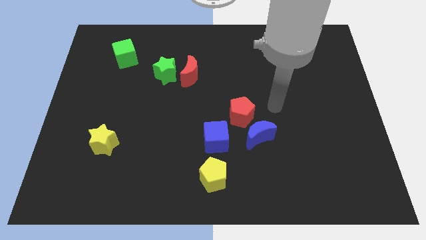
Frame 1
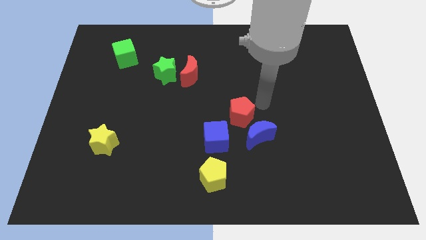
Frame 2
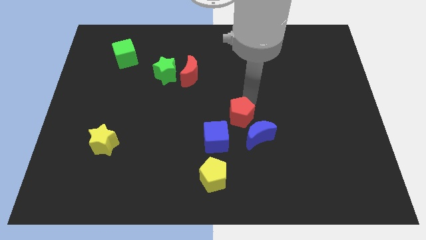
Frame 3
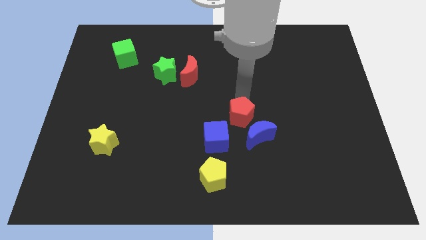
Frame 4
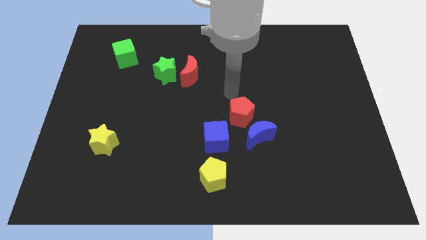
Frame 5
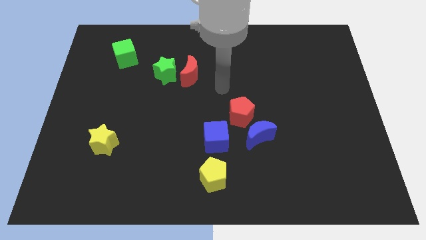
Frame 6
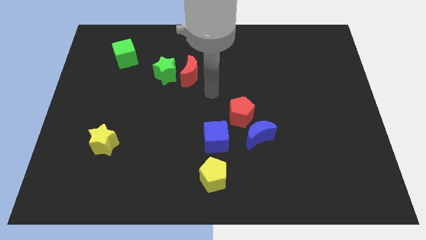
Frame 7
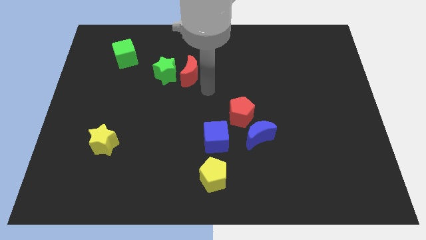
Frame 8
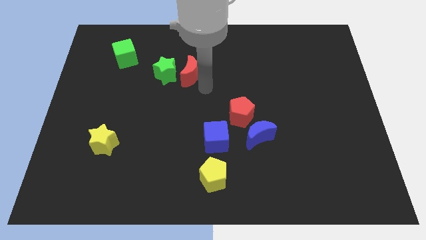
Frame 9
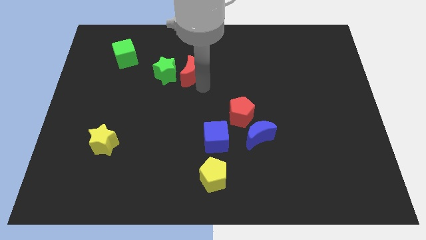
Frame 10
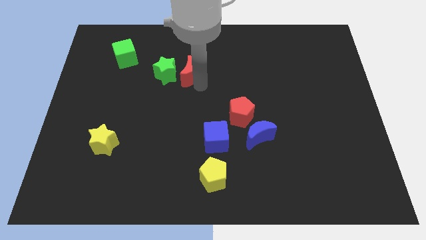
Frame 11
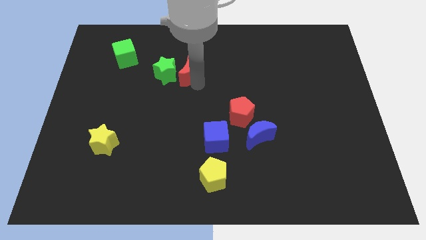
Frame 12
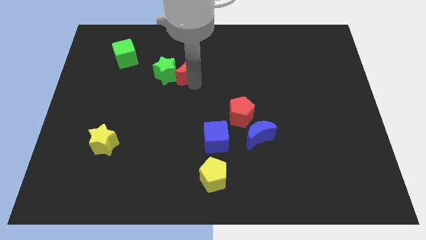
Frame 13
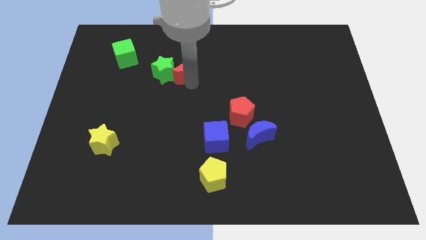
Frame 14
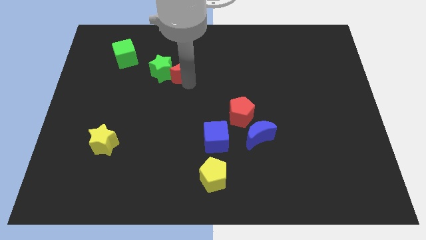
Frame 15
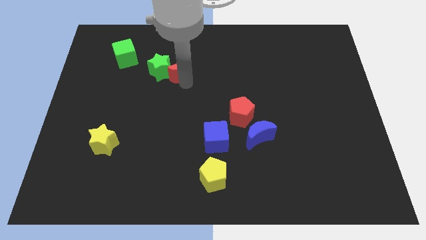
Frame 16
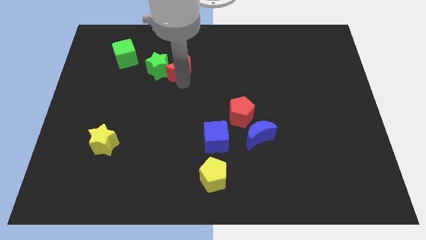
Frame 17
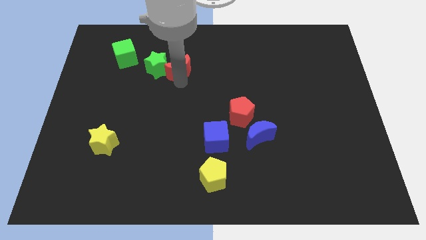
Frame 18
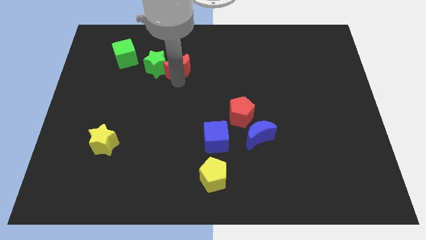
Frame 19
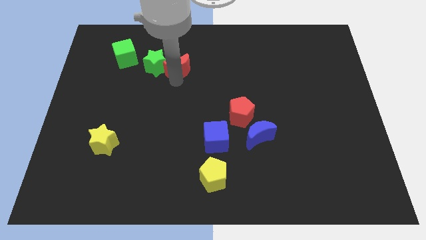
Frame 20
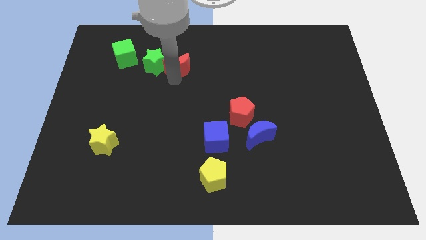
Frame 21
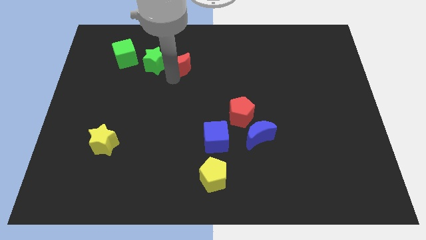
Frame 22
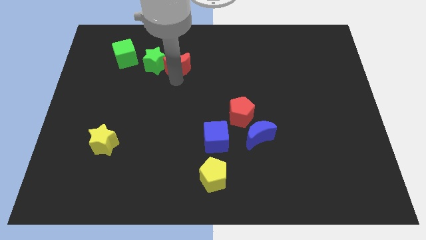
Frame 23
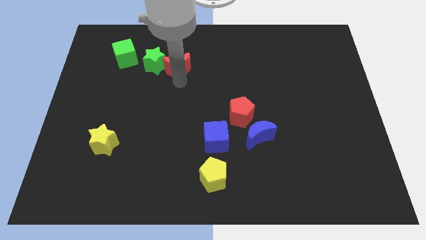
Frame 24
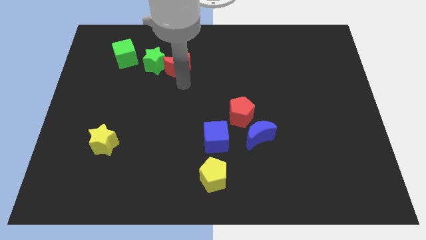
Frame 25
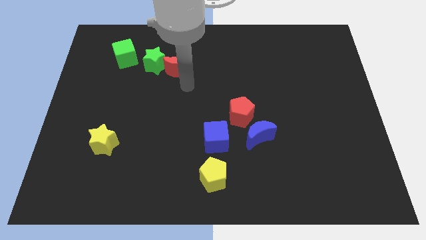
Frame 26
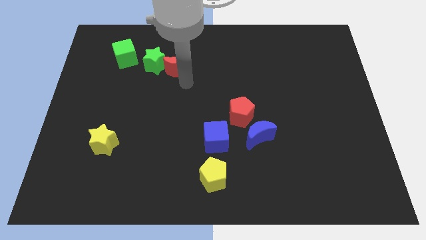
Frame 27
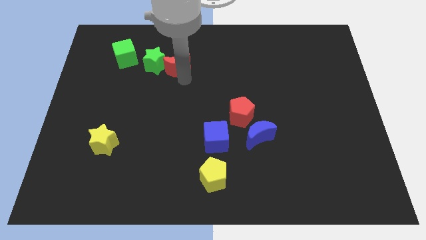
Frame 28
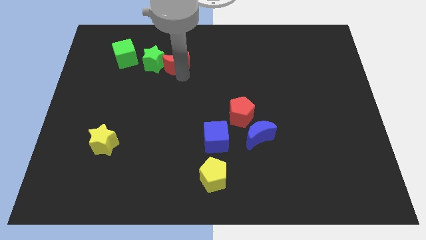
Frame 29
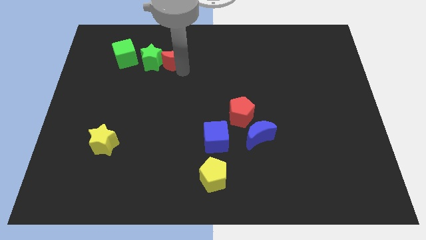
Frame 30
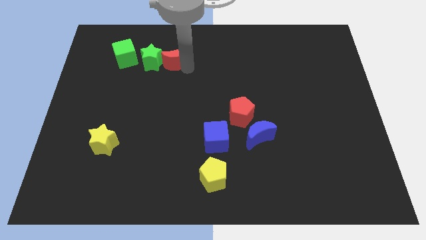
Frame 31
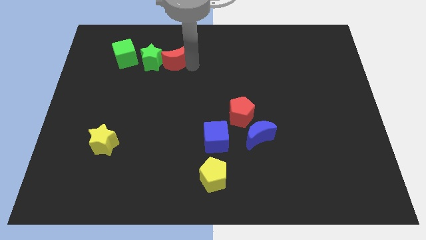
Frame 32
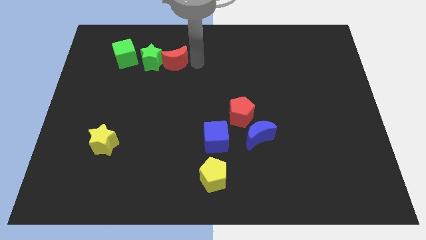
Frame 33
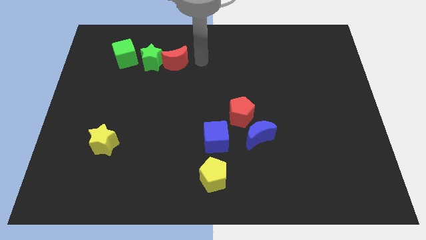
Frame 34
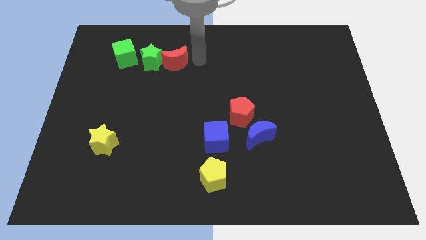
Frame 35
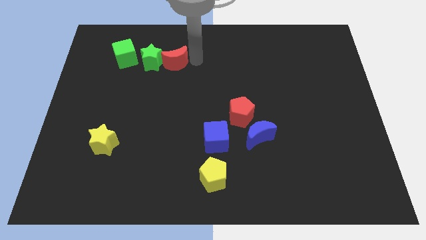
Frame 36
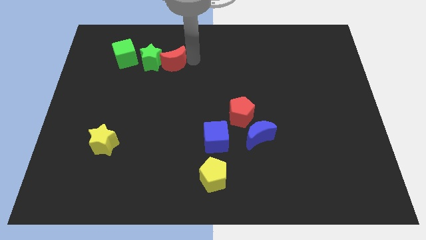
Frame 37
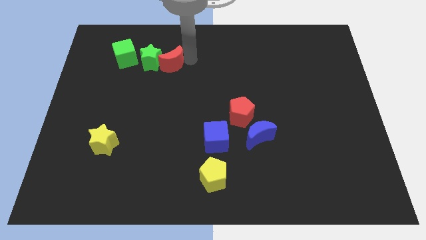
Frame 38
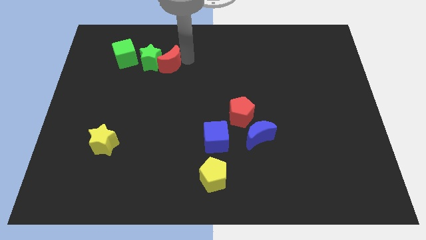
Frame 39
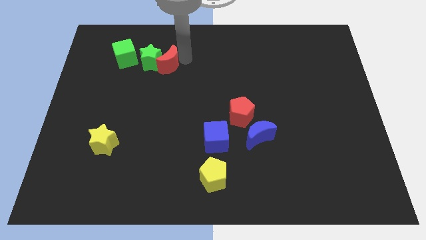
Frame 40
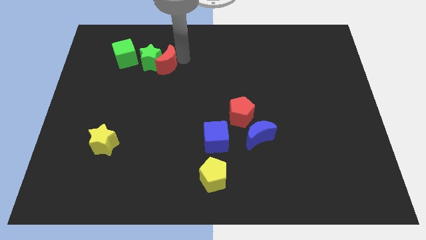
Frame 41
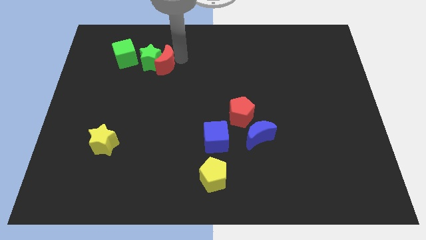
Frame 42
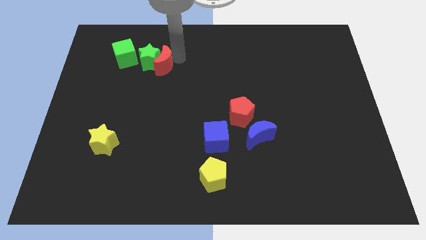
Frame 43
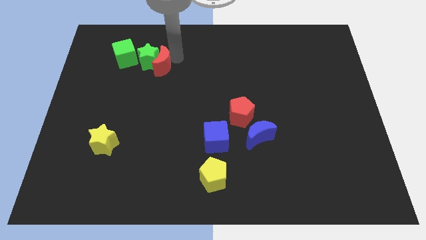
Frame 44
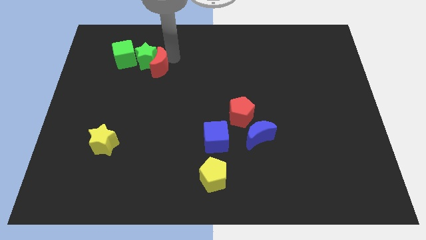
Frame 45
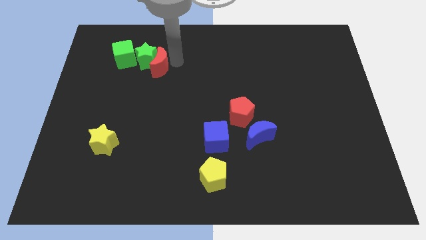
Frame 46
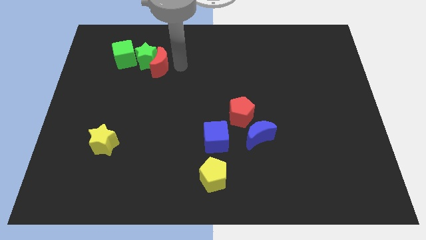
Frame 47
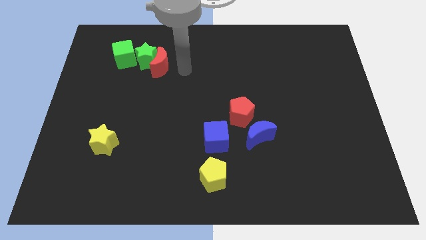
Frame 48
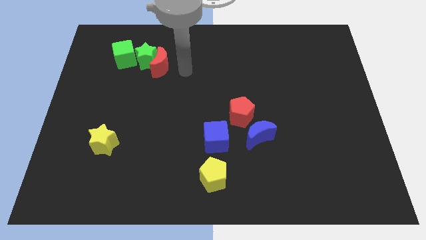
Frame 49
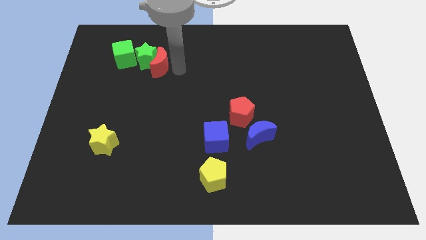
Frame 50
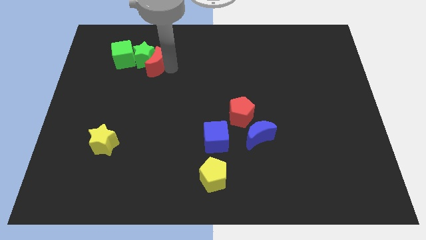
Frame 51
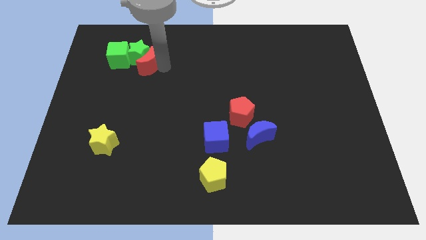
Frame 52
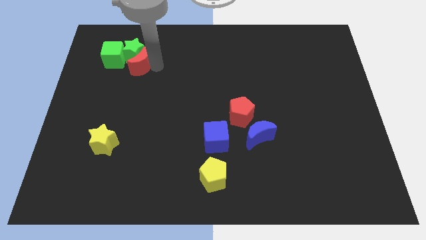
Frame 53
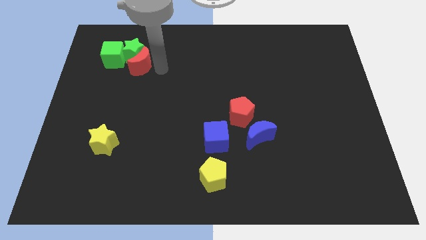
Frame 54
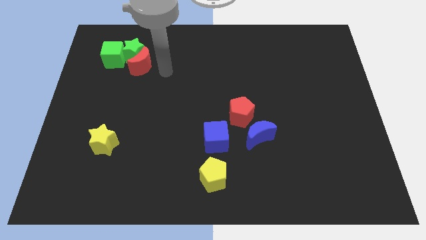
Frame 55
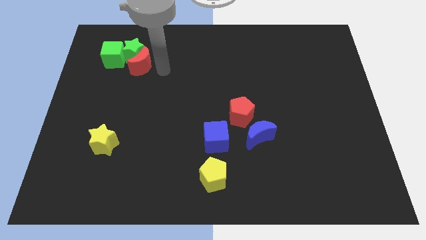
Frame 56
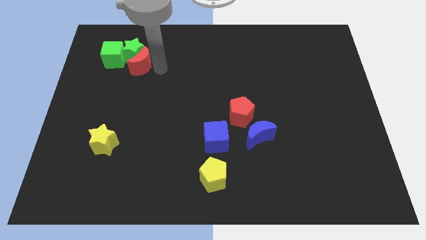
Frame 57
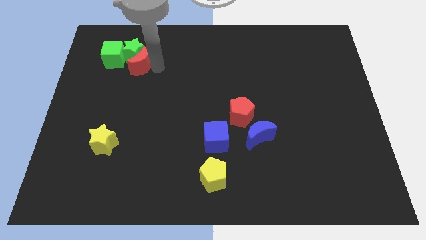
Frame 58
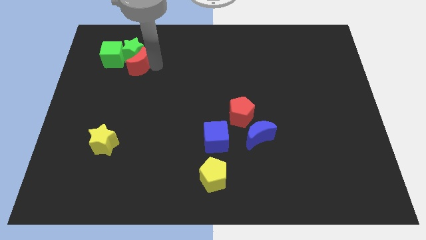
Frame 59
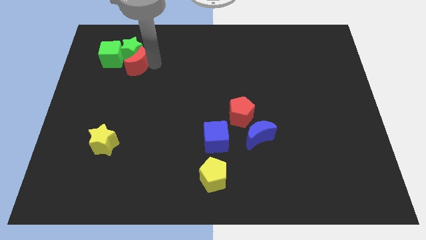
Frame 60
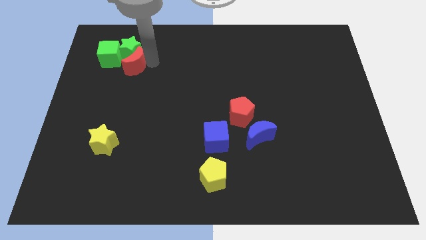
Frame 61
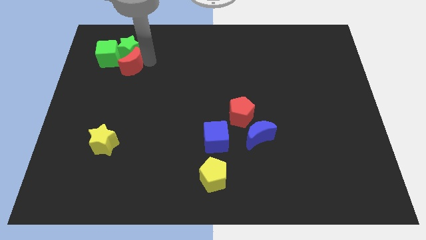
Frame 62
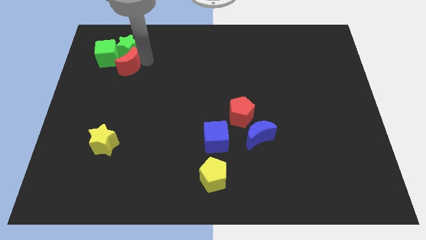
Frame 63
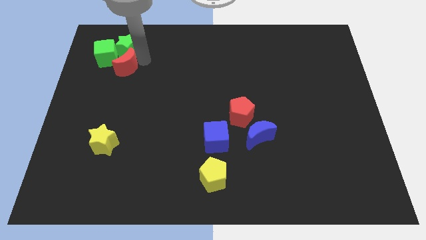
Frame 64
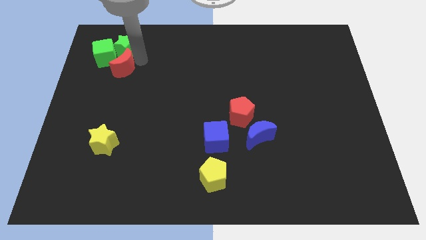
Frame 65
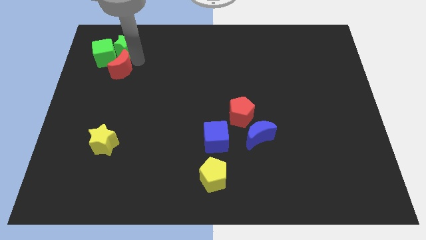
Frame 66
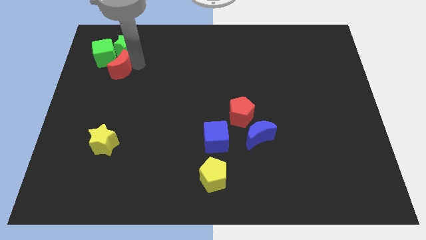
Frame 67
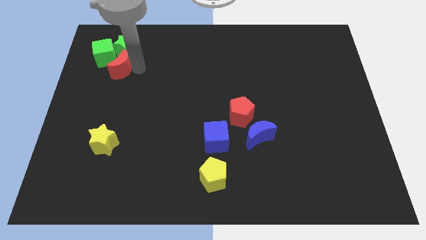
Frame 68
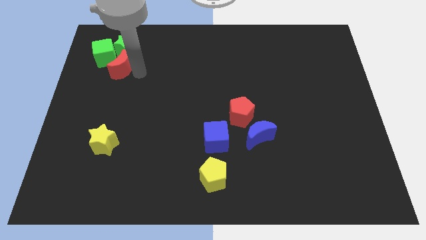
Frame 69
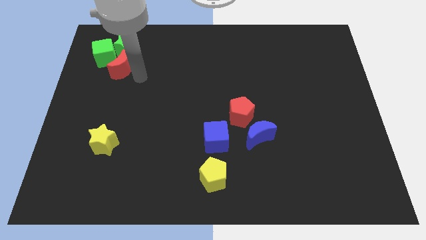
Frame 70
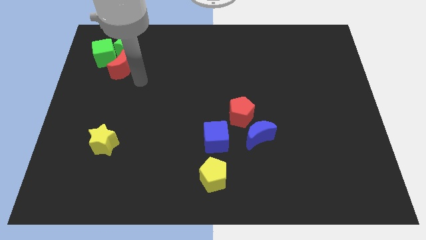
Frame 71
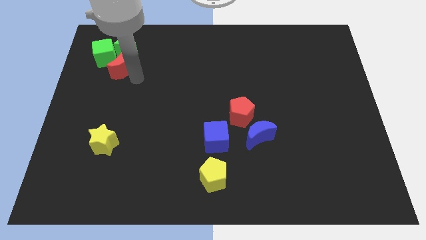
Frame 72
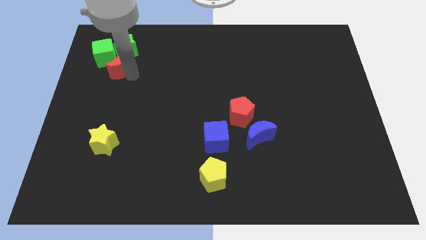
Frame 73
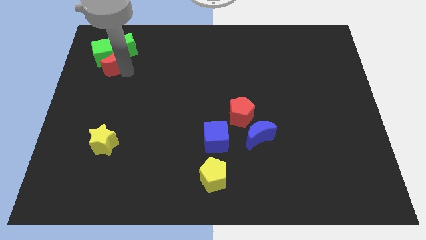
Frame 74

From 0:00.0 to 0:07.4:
move the red moon close to the green cube
